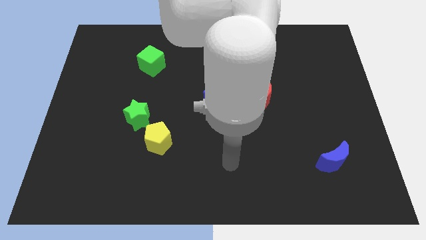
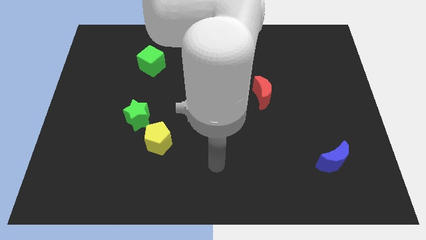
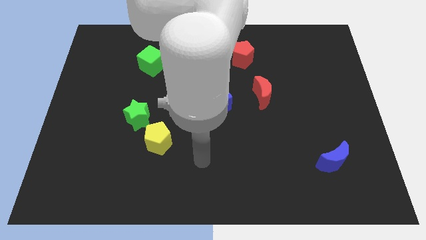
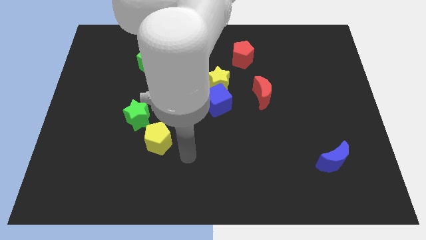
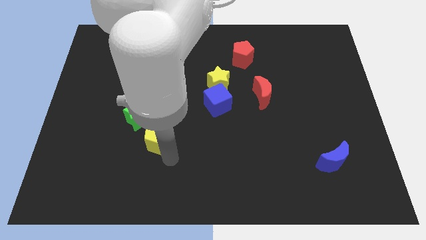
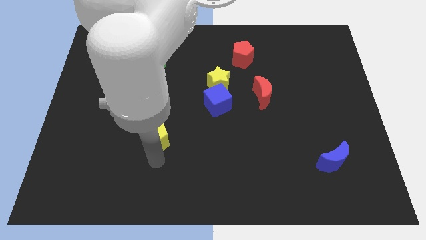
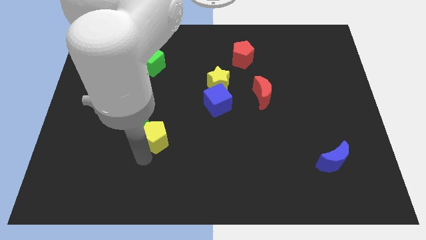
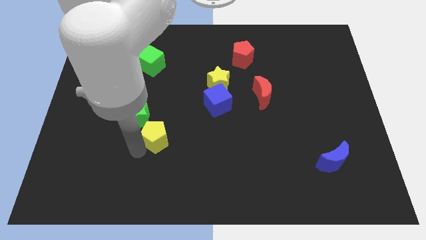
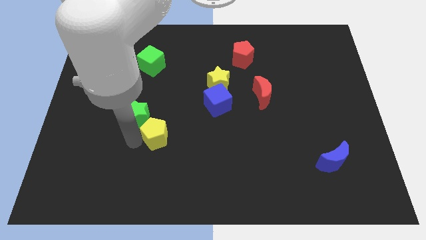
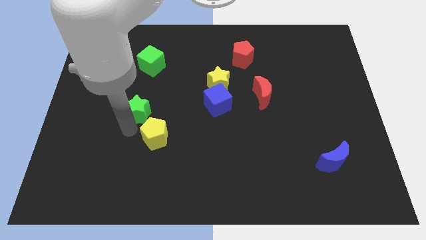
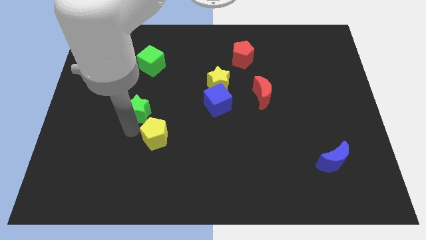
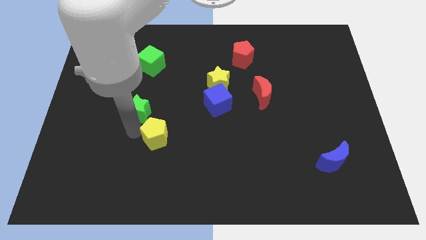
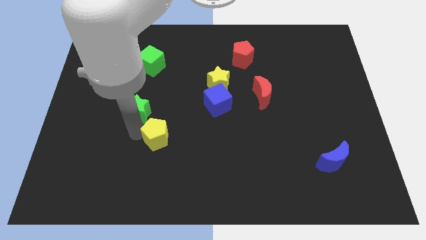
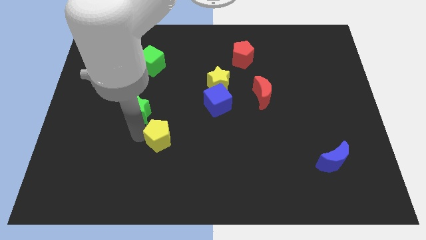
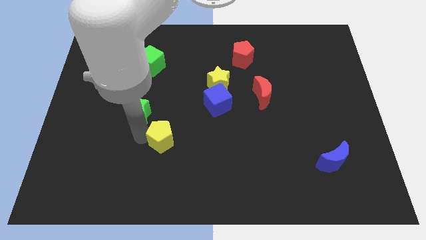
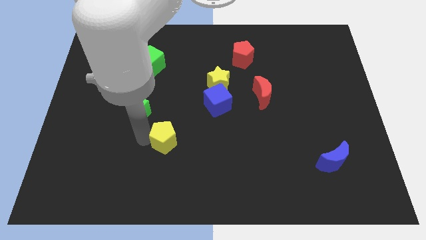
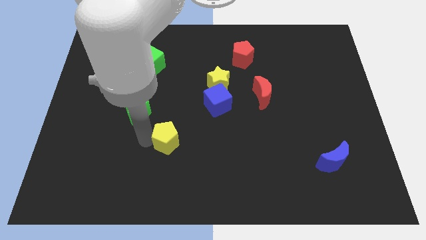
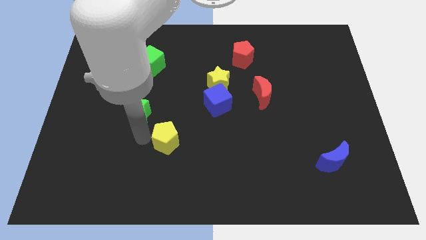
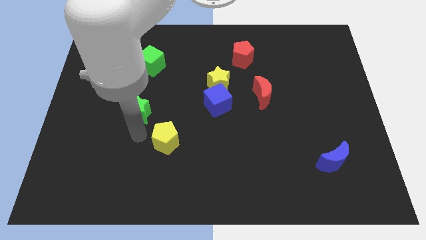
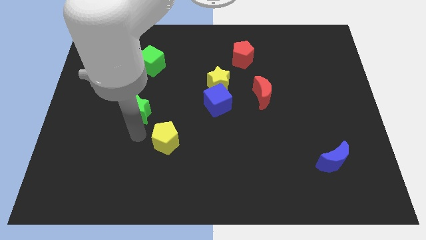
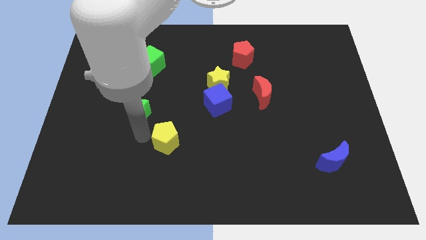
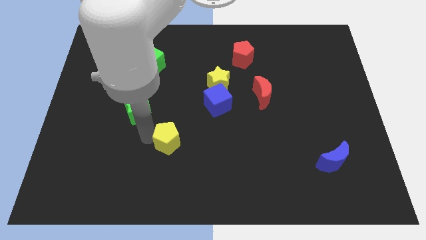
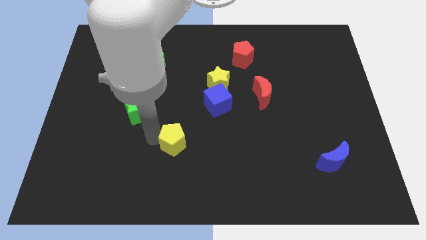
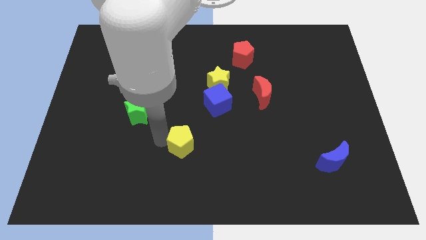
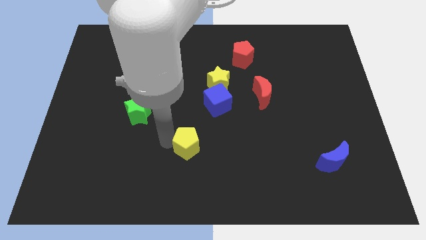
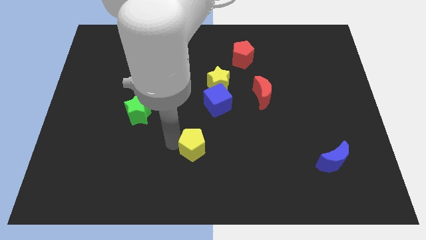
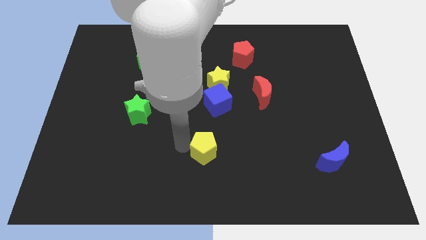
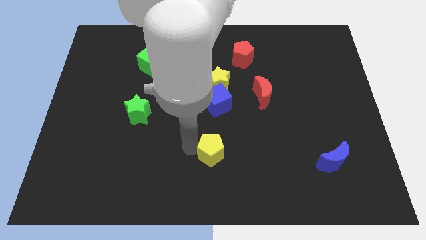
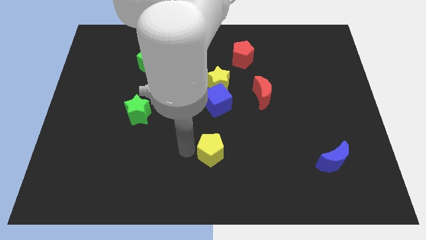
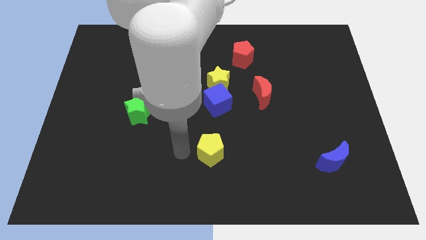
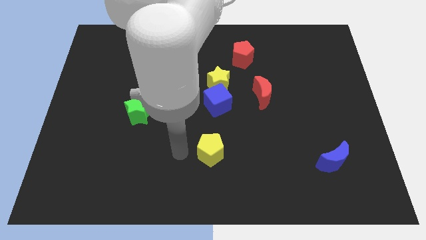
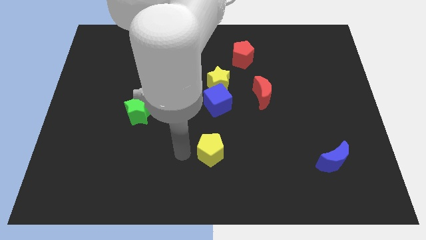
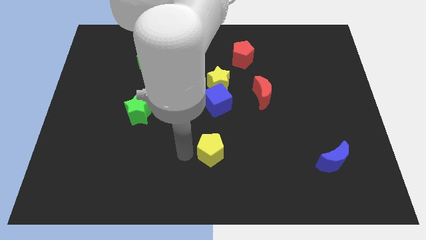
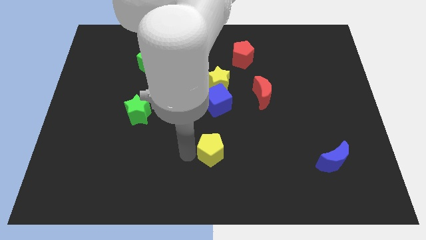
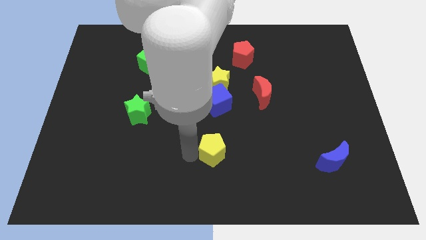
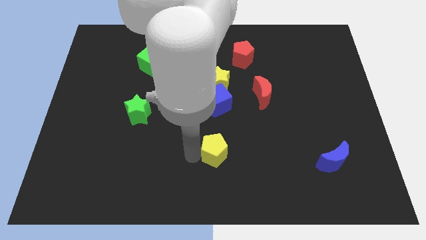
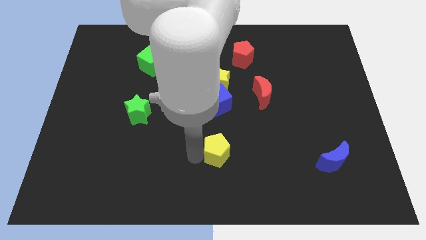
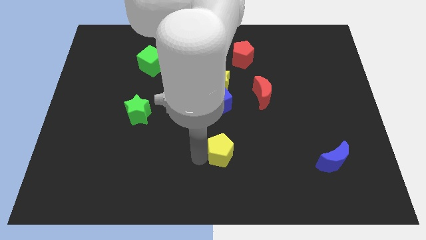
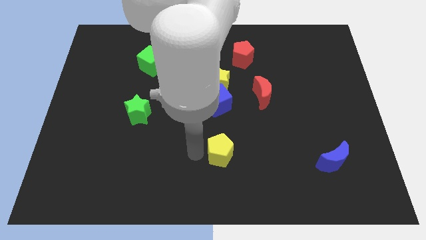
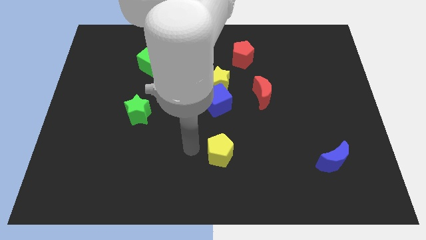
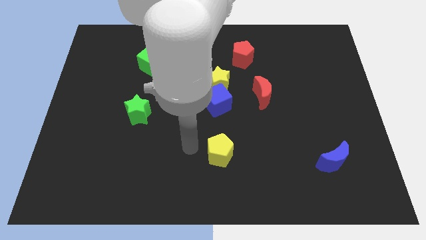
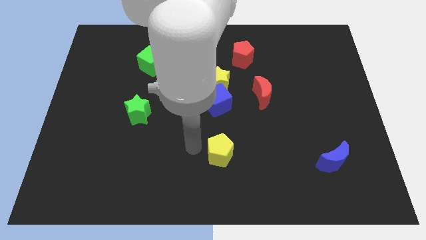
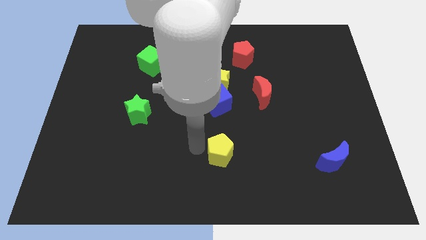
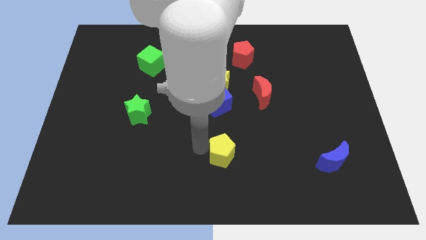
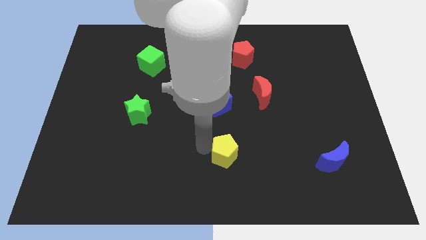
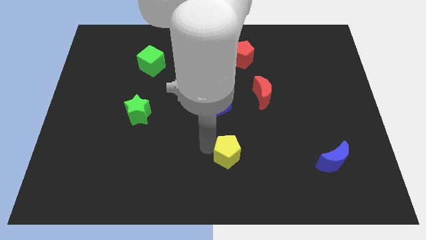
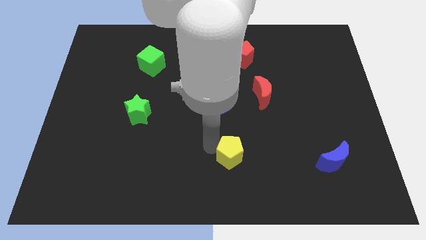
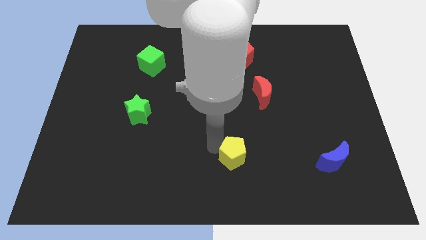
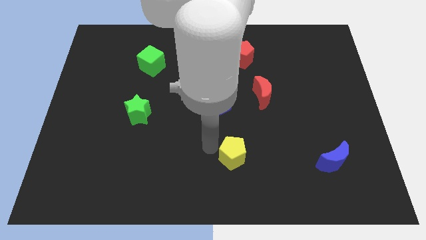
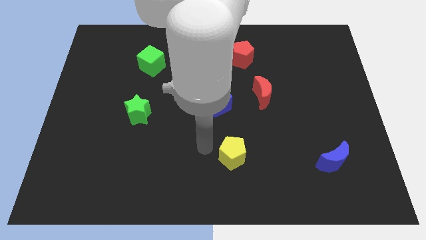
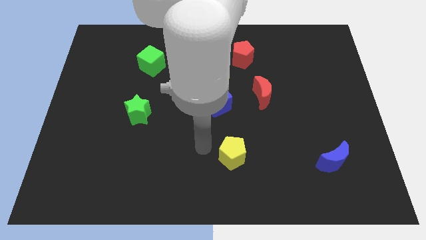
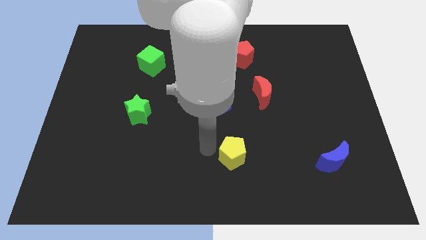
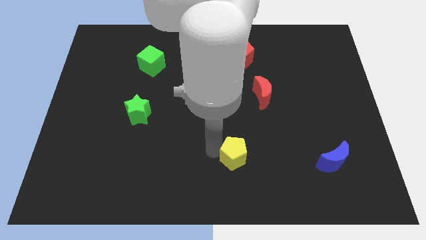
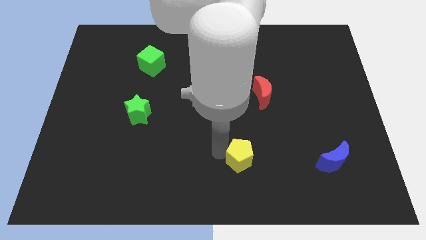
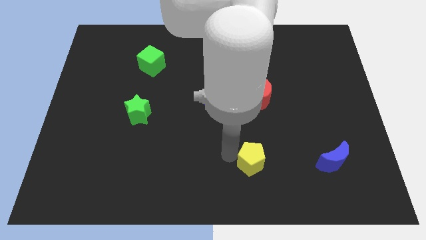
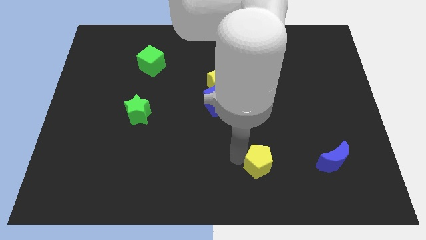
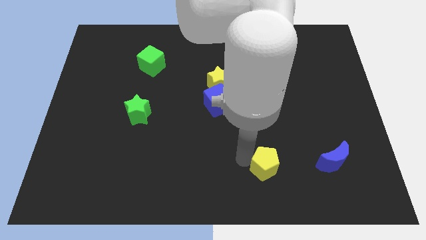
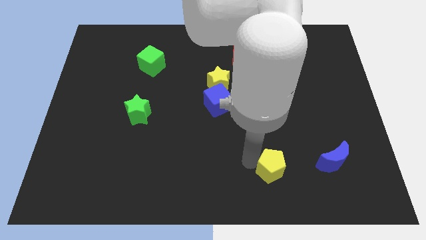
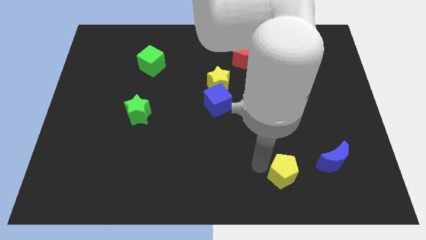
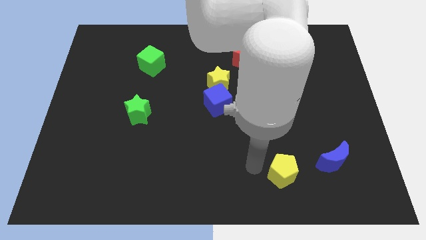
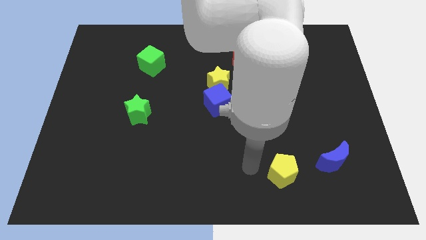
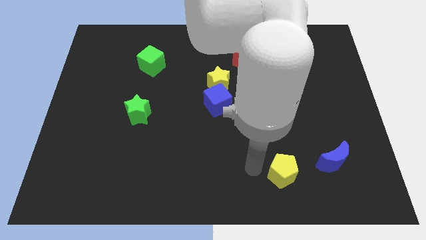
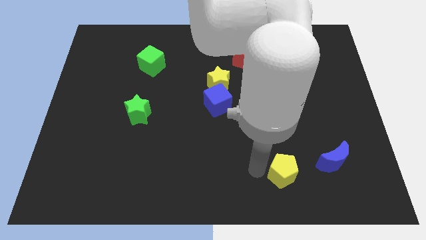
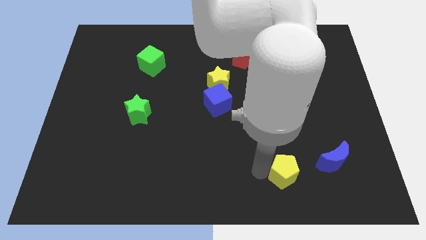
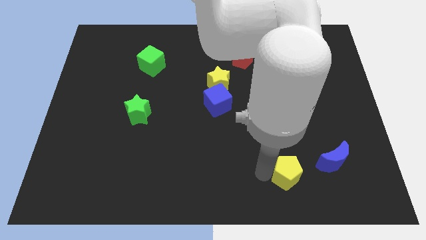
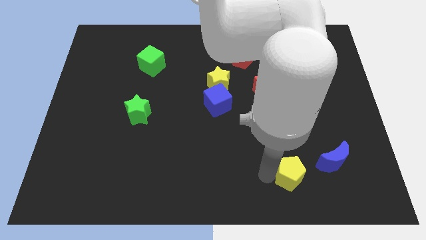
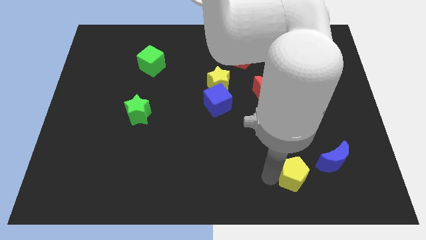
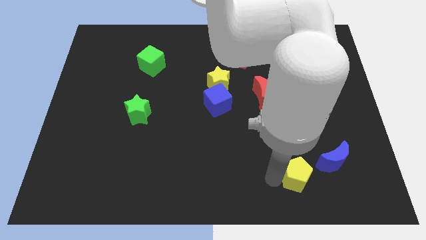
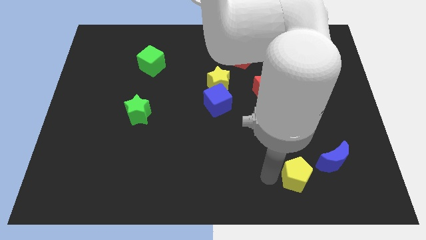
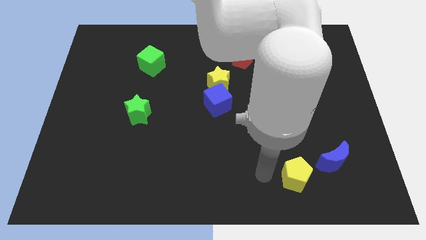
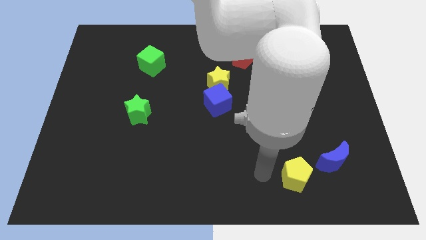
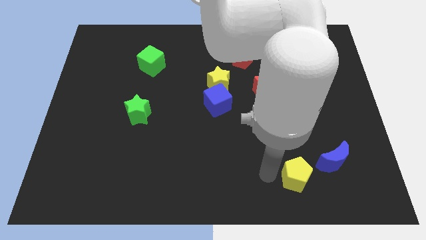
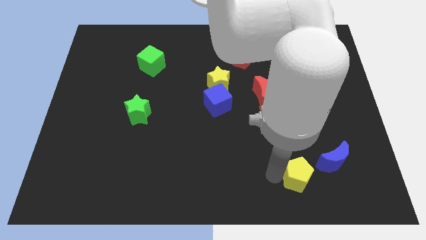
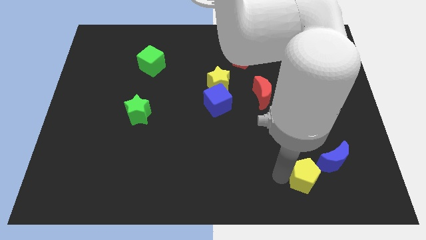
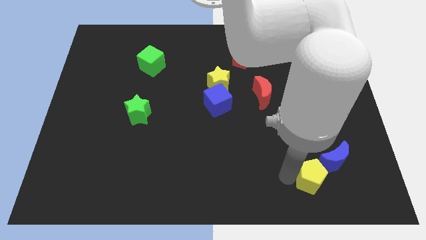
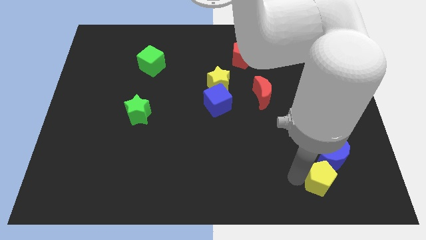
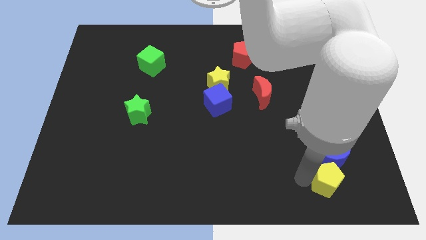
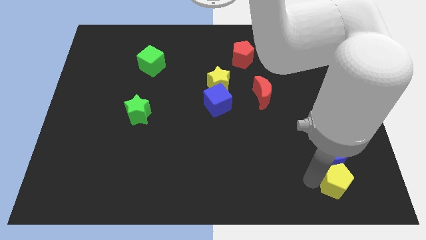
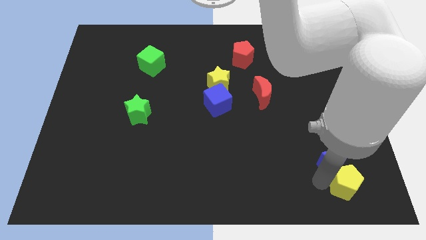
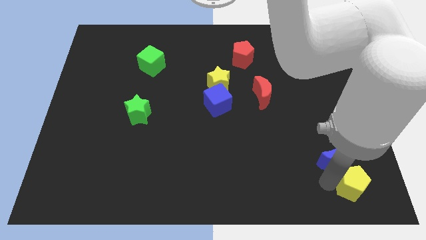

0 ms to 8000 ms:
push the yellow pentagon to the lower right corner
